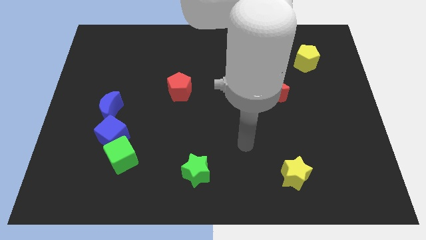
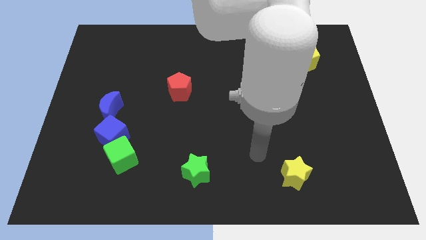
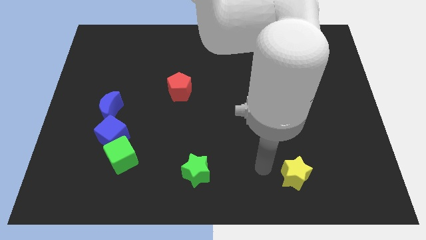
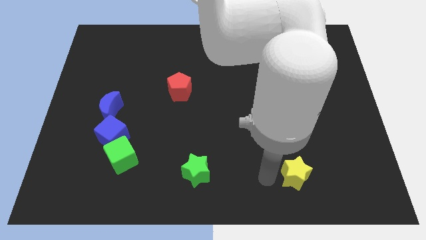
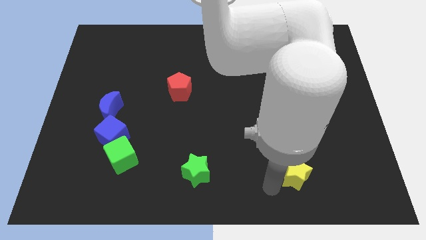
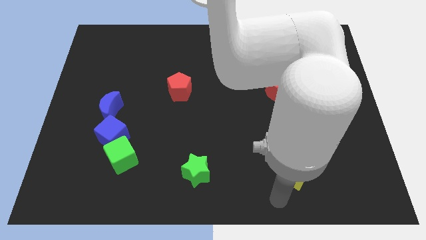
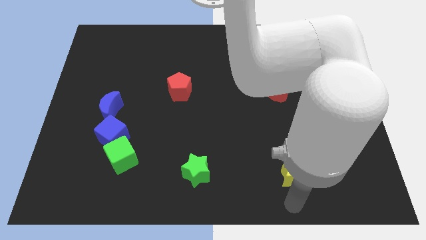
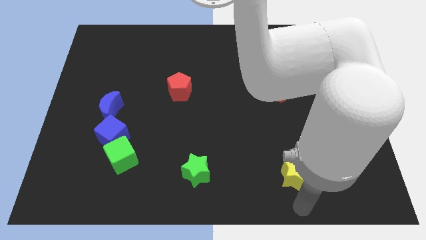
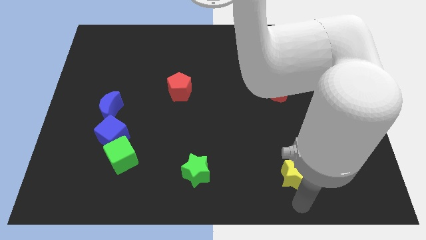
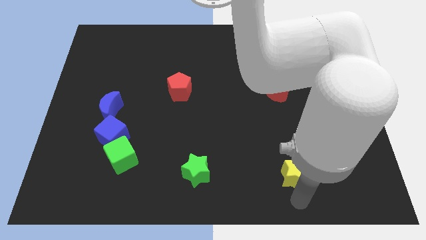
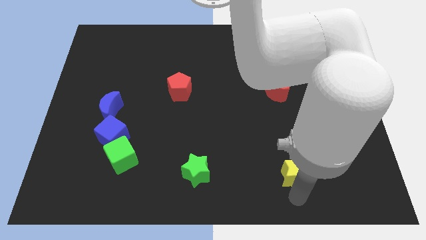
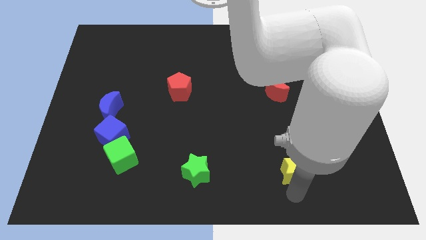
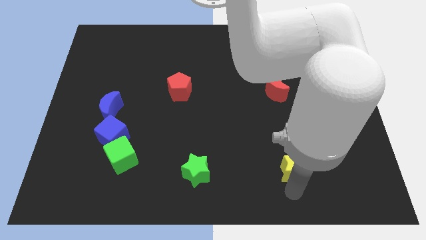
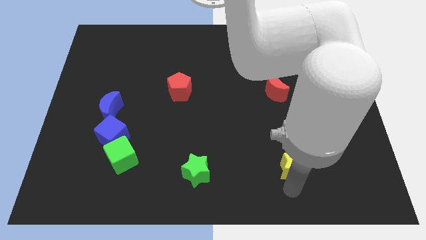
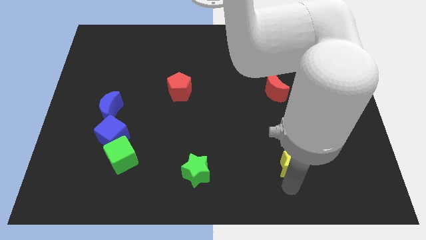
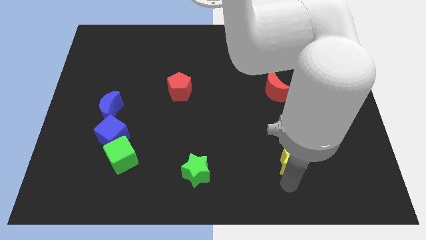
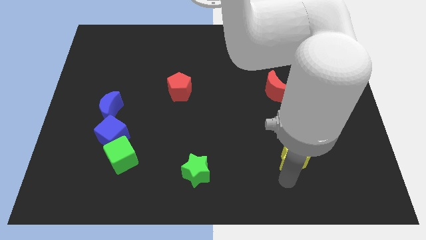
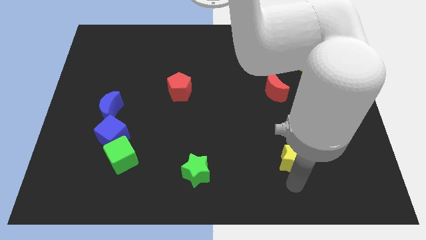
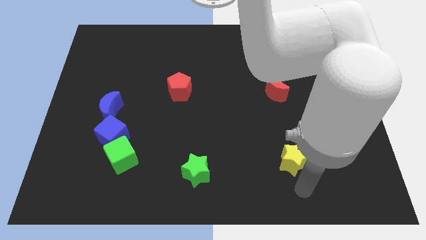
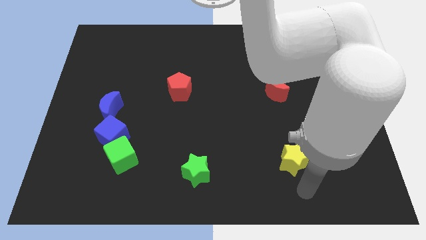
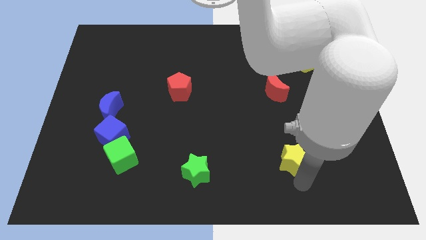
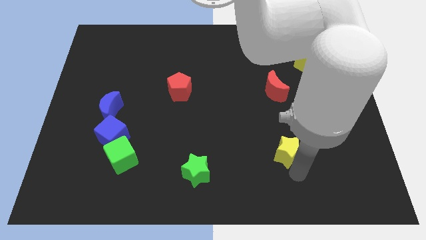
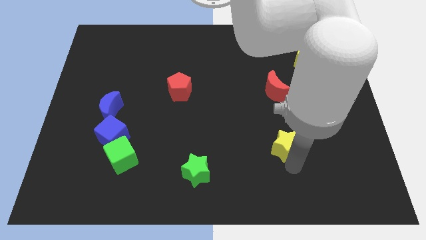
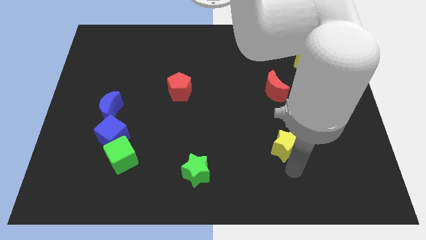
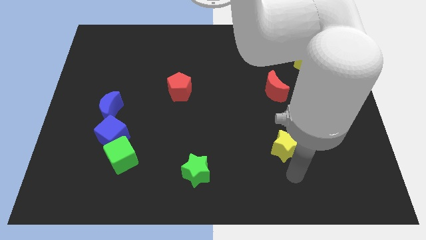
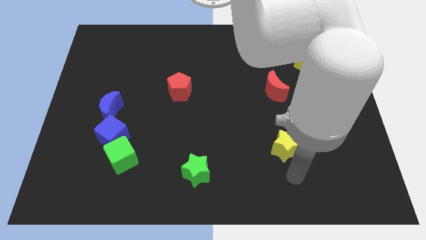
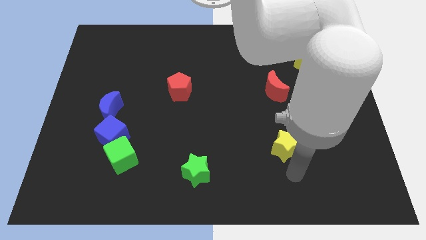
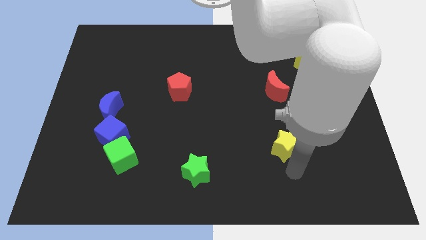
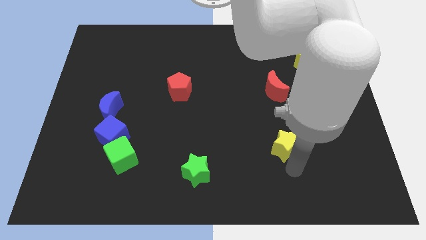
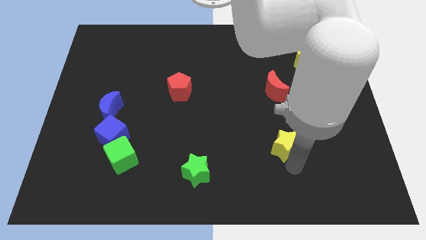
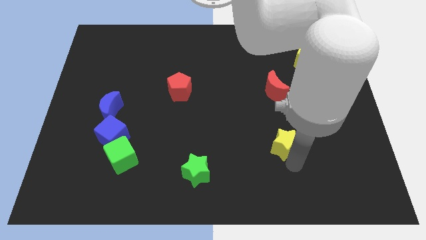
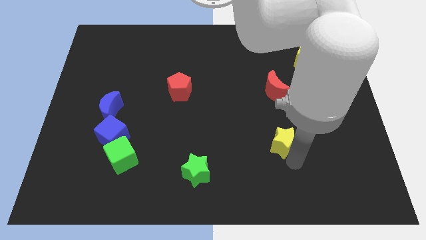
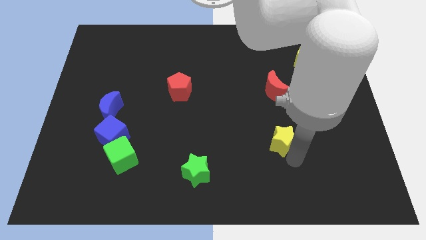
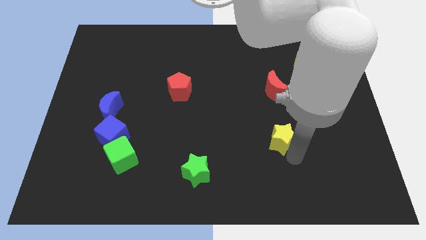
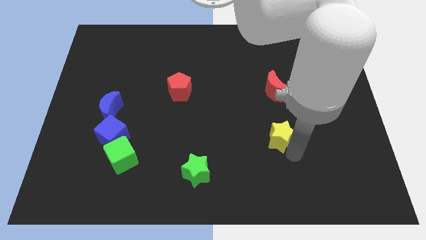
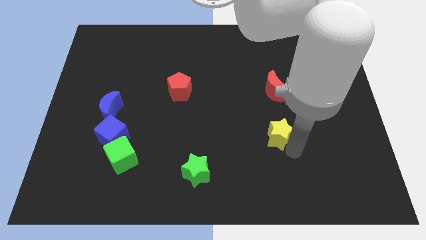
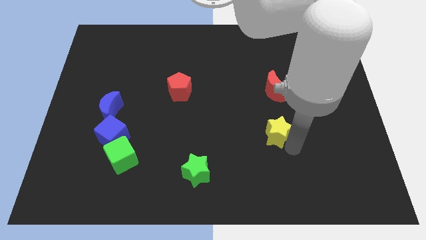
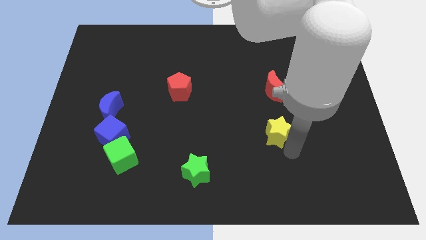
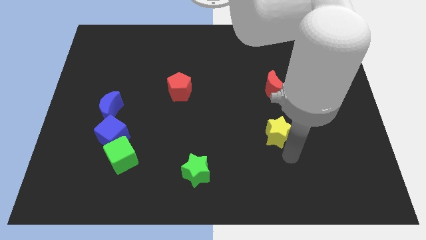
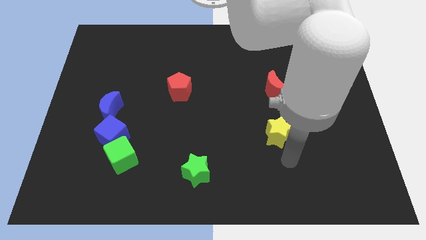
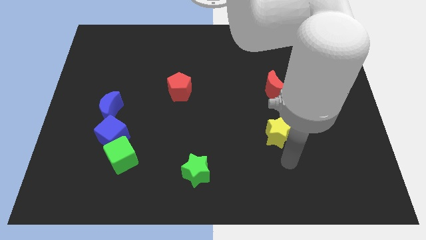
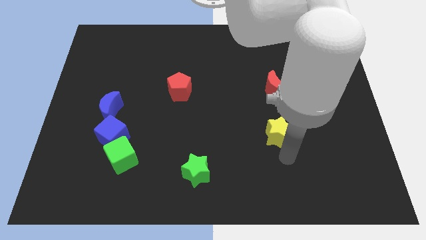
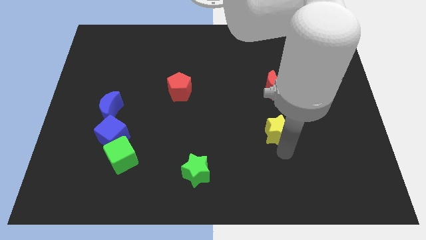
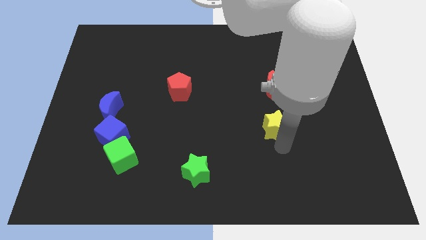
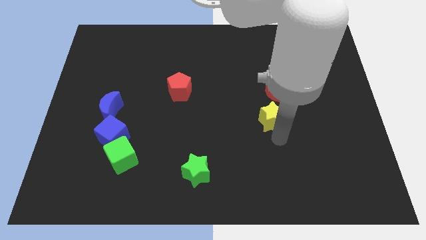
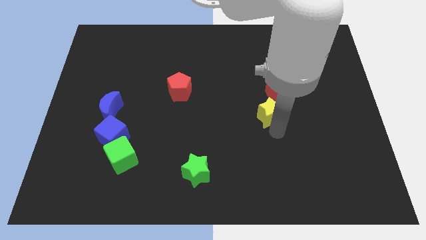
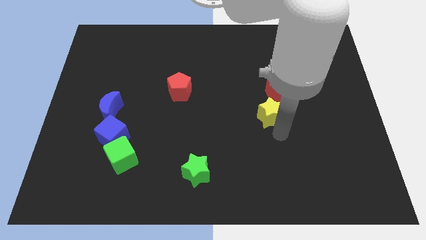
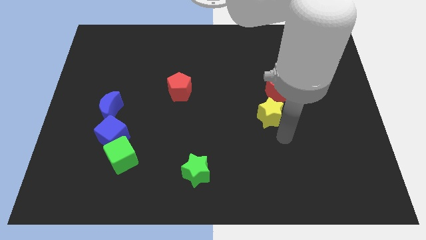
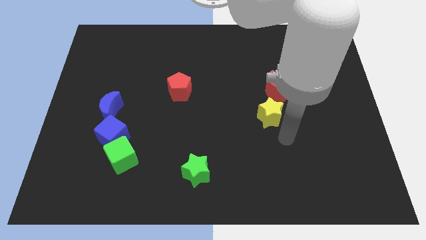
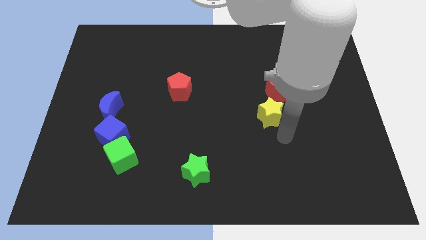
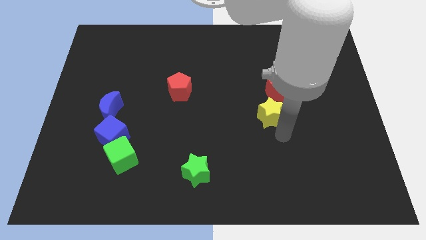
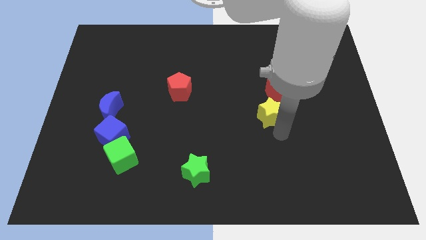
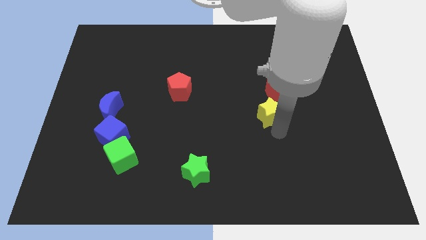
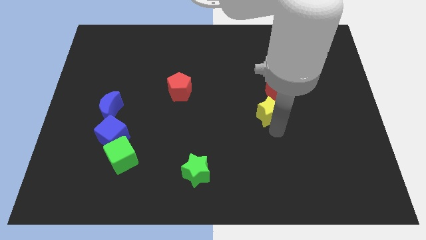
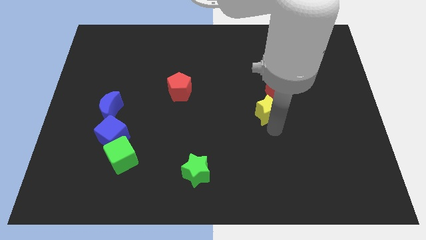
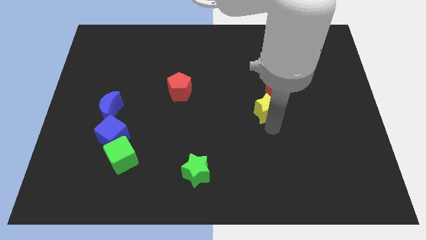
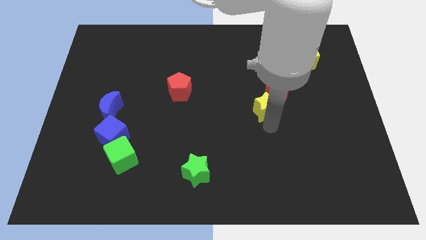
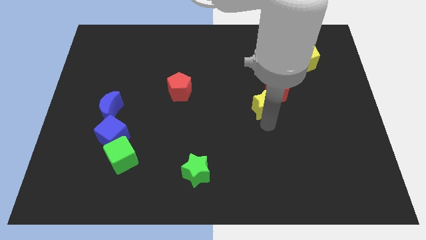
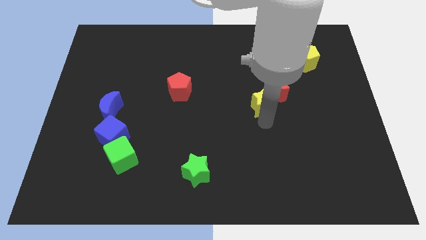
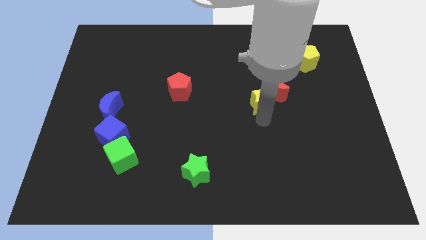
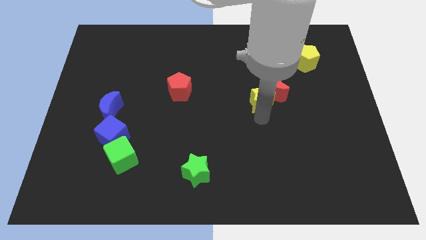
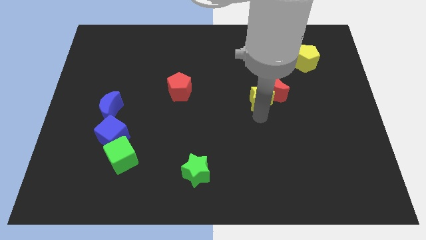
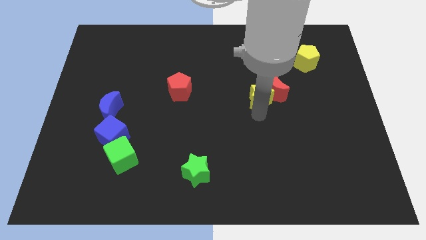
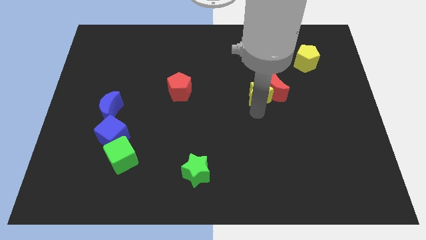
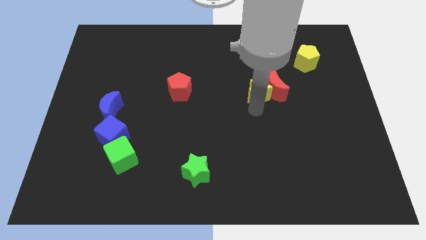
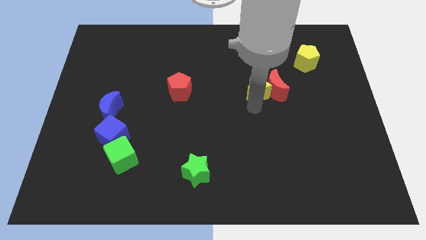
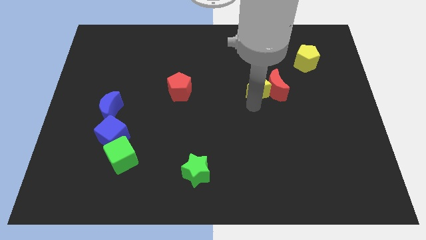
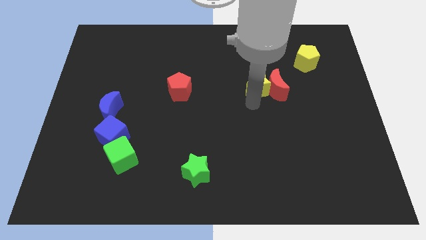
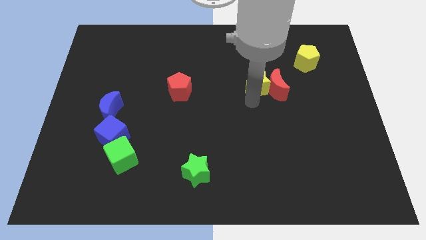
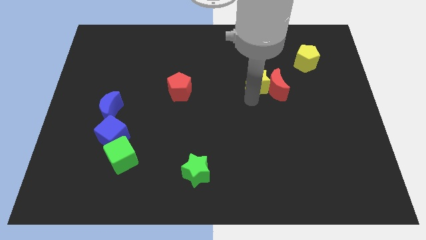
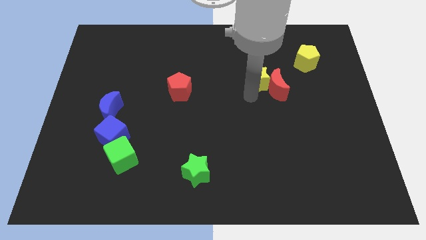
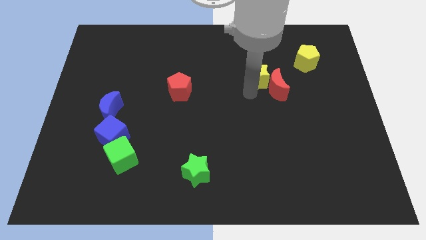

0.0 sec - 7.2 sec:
put the yellow star above the red moon

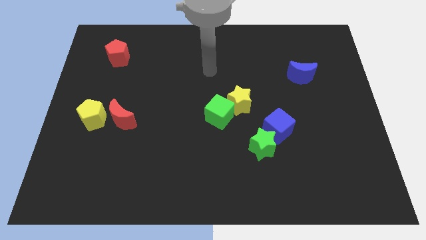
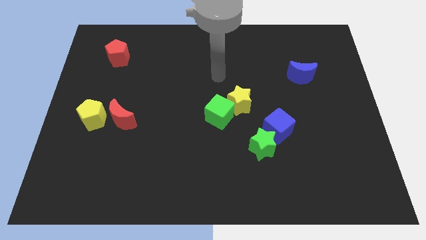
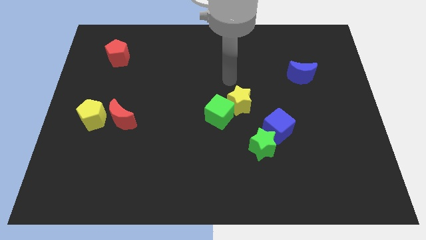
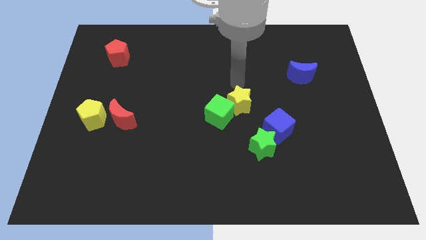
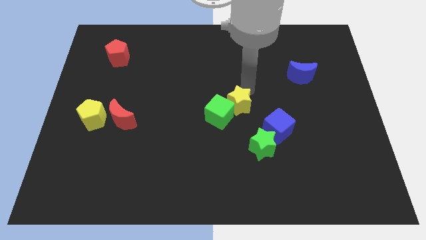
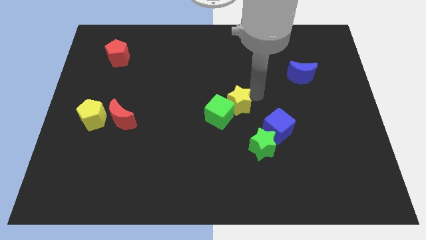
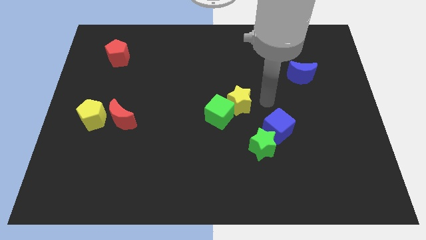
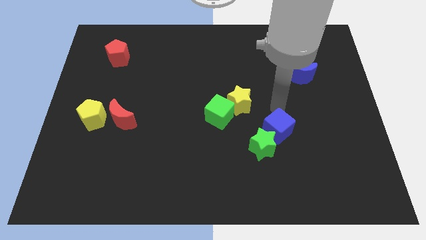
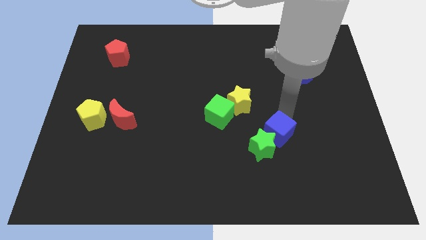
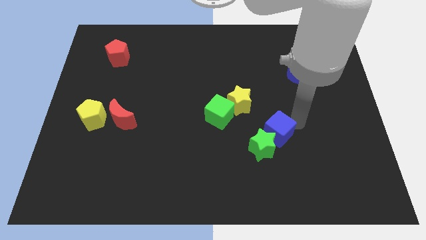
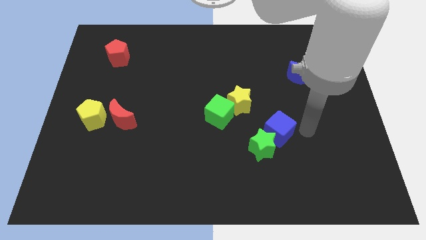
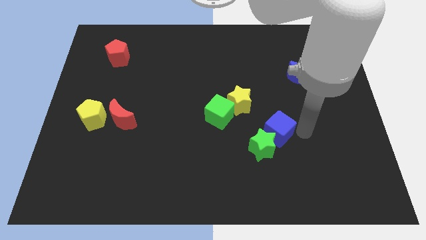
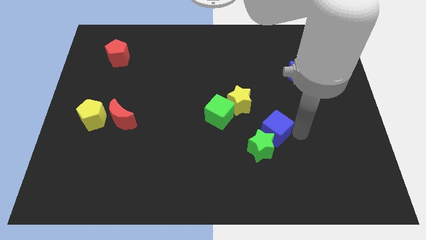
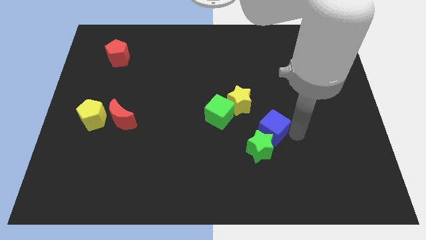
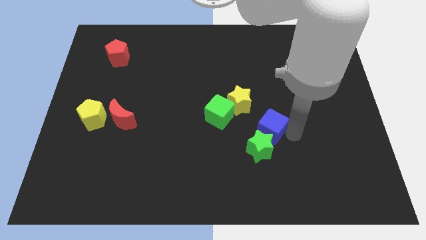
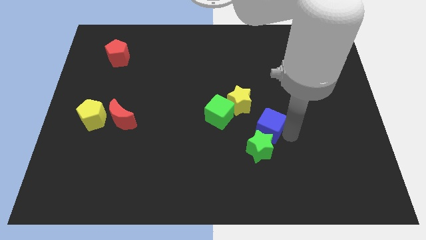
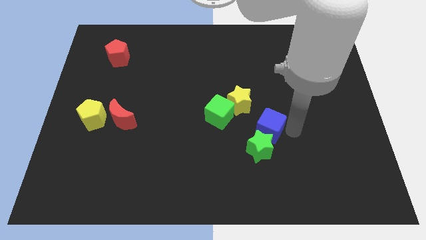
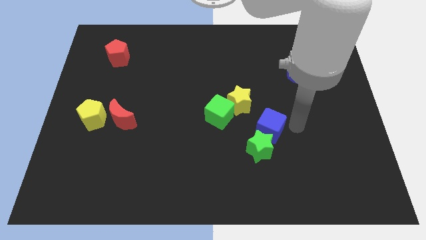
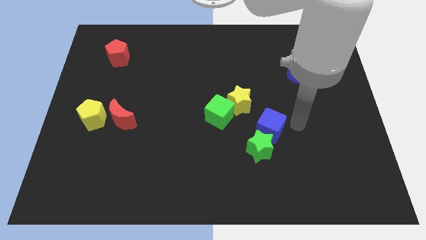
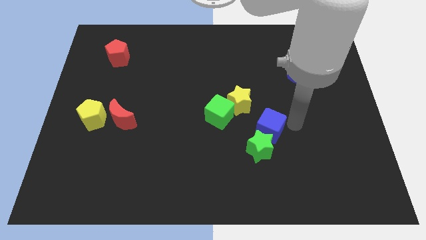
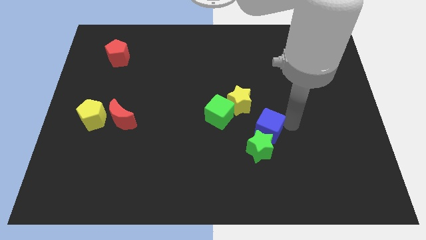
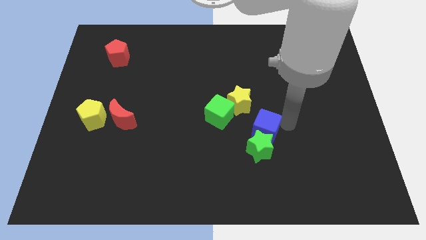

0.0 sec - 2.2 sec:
slide the blue cube diagonally down and to the right of the green cube
